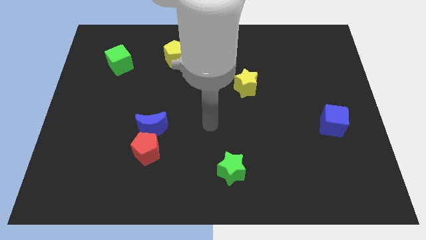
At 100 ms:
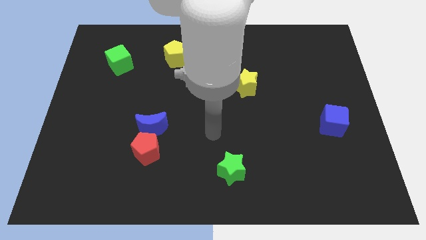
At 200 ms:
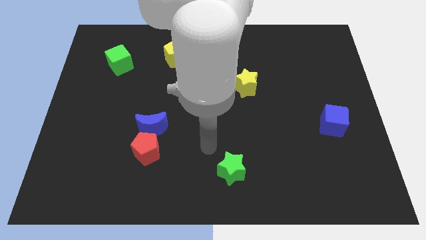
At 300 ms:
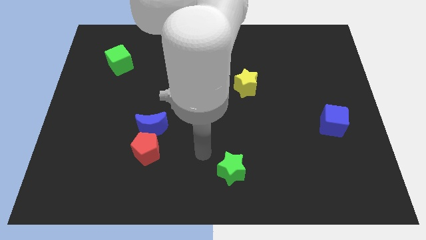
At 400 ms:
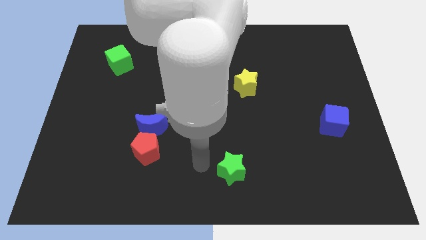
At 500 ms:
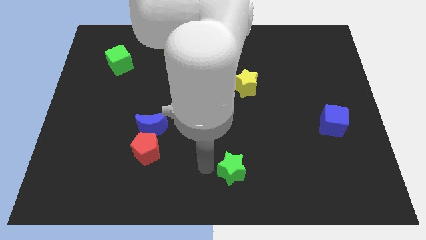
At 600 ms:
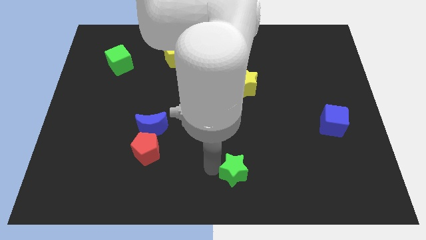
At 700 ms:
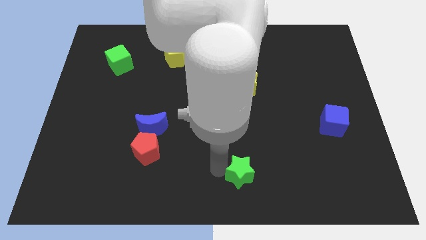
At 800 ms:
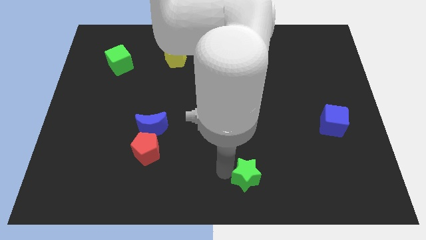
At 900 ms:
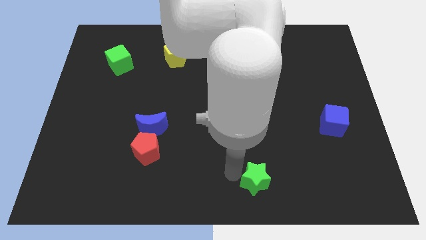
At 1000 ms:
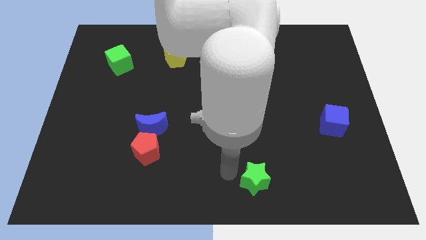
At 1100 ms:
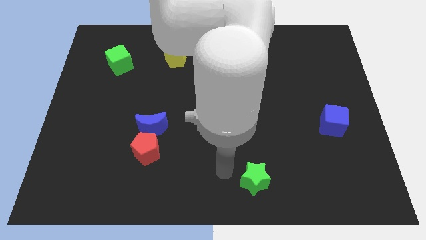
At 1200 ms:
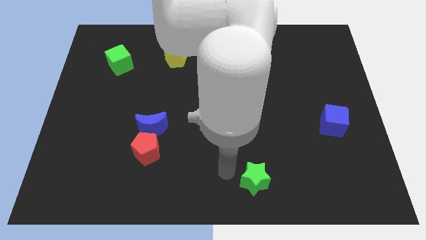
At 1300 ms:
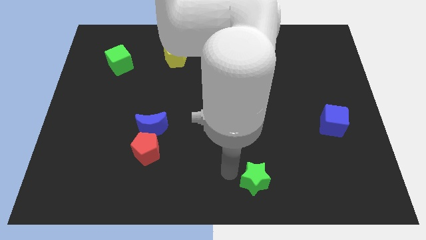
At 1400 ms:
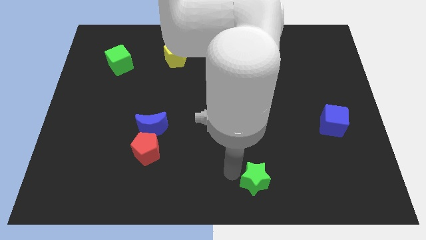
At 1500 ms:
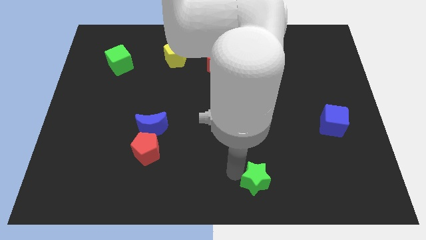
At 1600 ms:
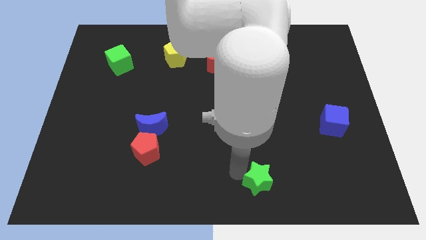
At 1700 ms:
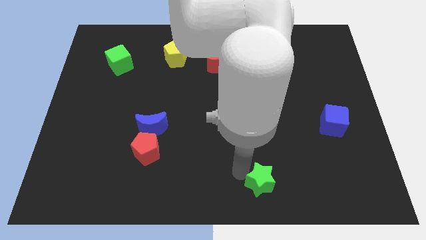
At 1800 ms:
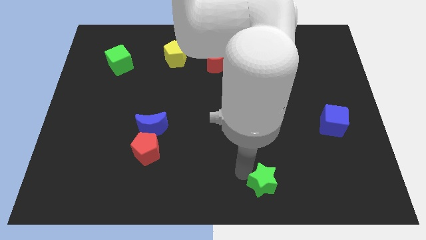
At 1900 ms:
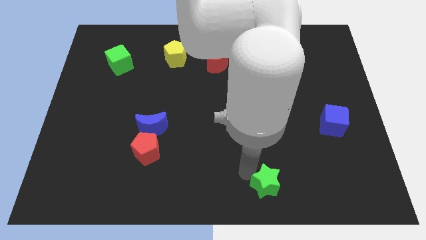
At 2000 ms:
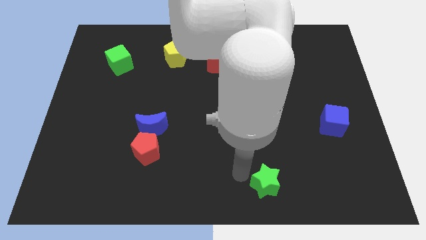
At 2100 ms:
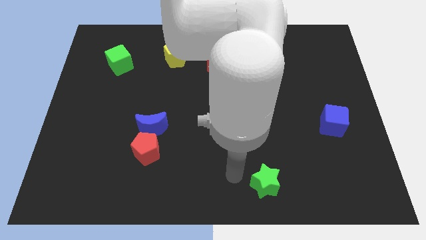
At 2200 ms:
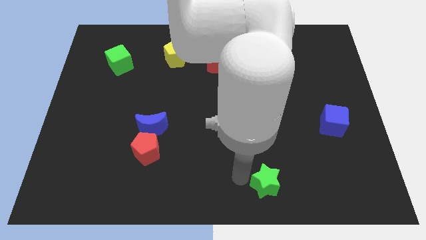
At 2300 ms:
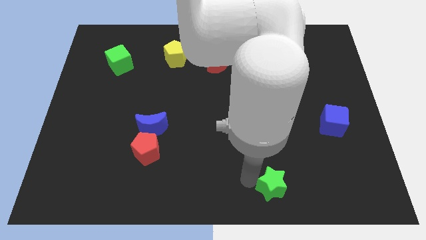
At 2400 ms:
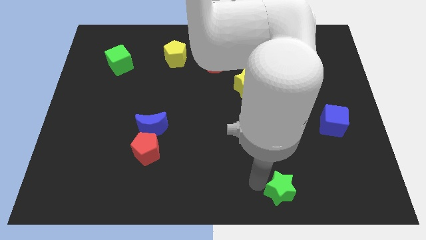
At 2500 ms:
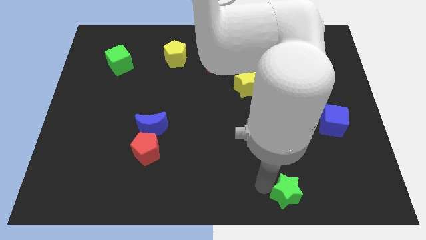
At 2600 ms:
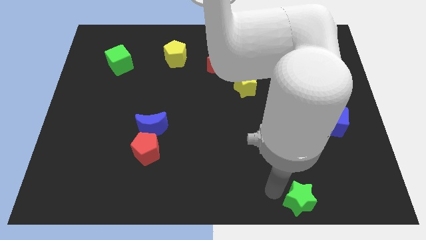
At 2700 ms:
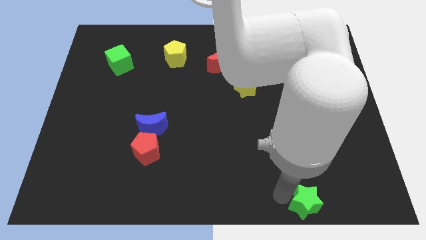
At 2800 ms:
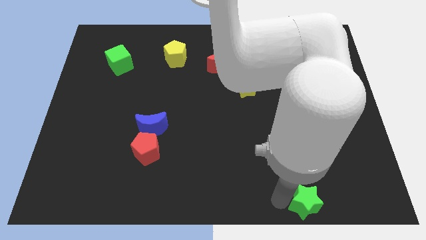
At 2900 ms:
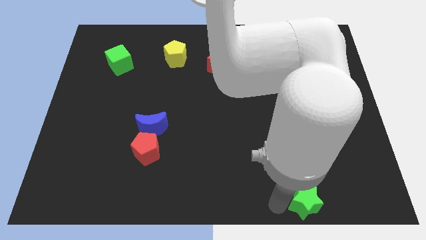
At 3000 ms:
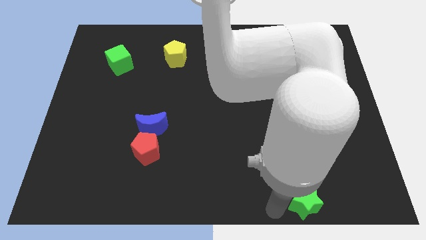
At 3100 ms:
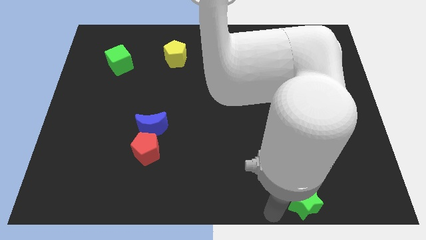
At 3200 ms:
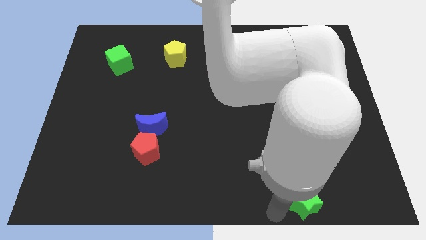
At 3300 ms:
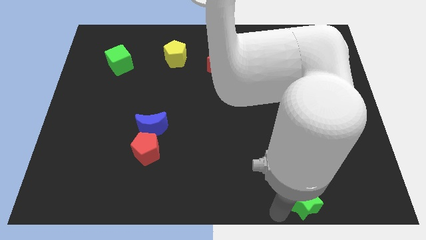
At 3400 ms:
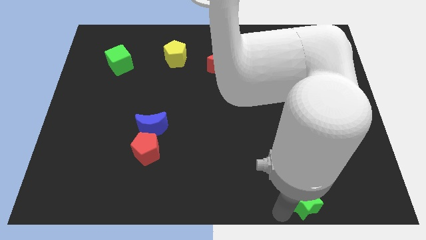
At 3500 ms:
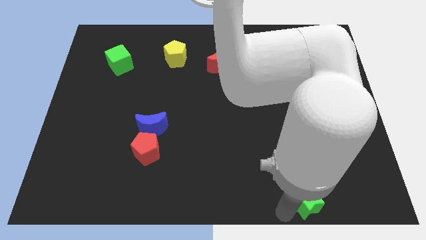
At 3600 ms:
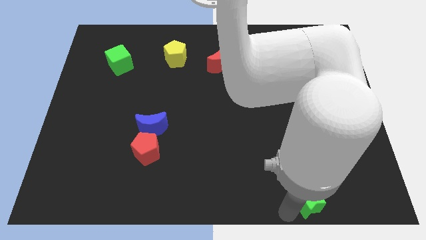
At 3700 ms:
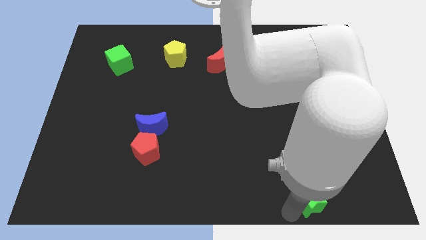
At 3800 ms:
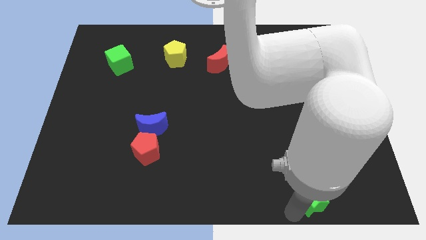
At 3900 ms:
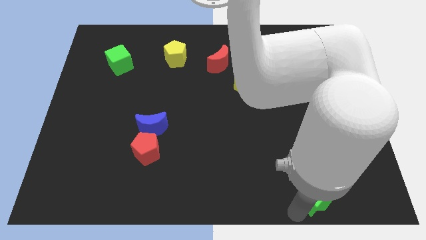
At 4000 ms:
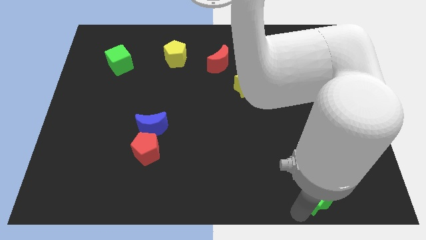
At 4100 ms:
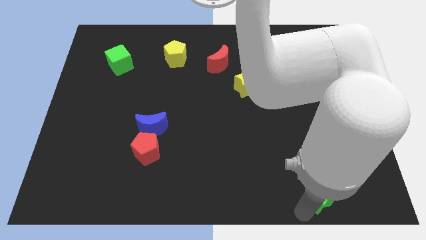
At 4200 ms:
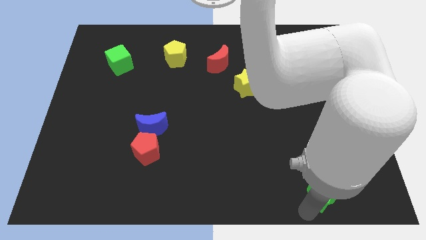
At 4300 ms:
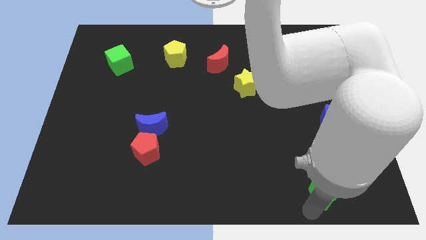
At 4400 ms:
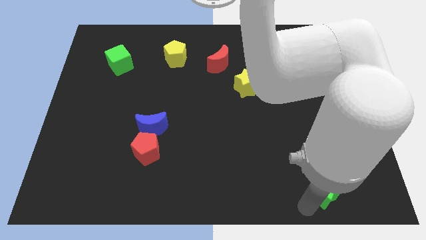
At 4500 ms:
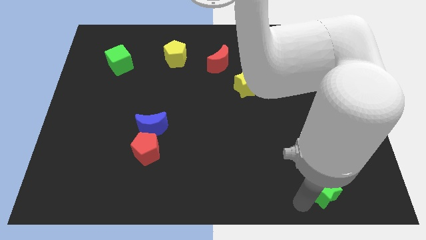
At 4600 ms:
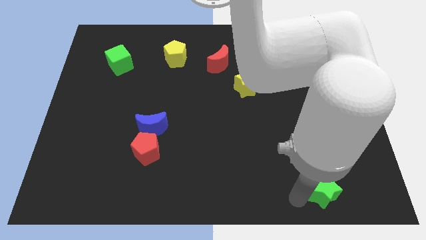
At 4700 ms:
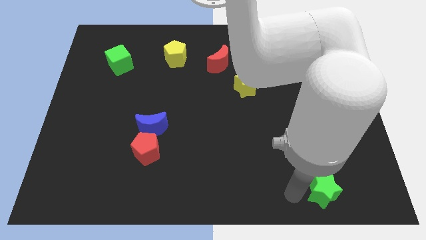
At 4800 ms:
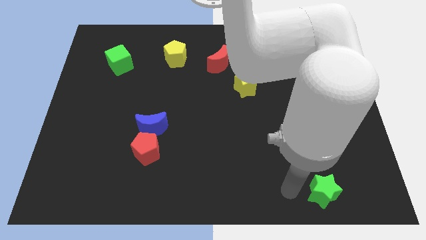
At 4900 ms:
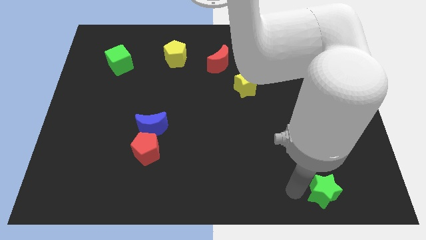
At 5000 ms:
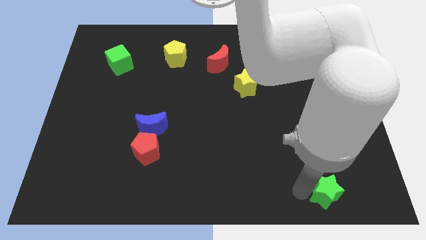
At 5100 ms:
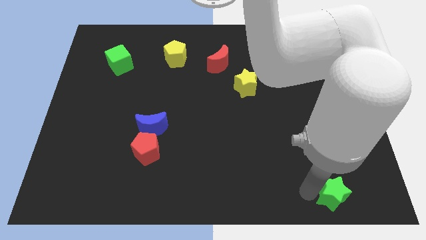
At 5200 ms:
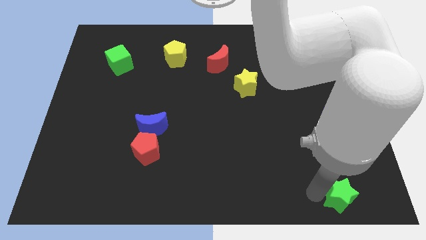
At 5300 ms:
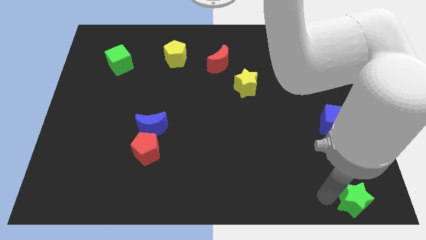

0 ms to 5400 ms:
put the green star to the bottom right corner

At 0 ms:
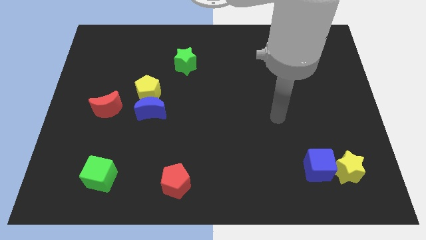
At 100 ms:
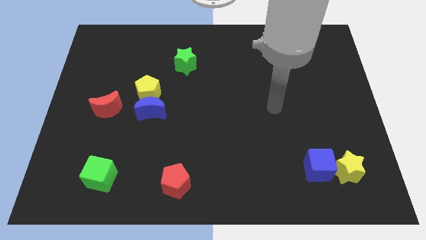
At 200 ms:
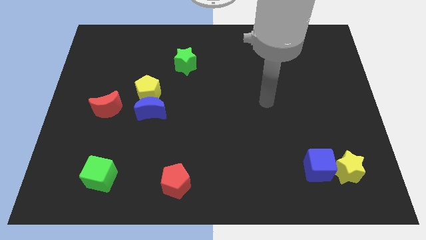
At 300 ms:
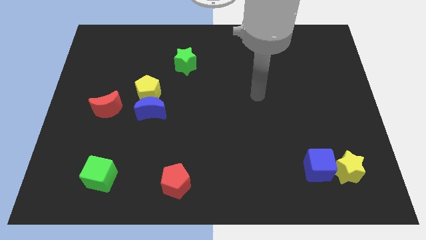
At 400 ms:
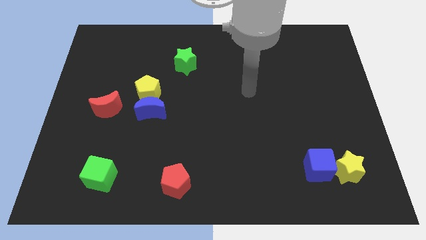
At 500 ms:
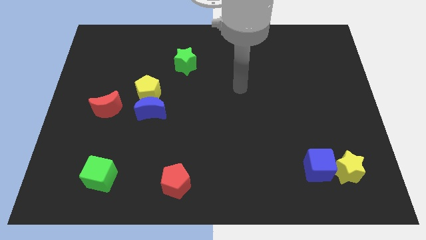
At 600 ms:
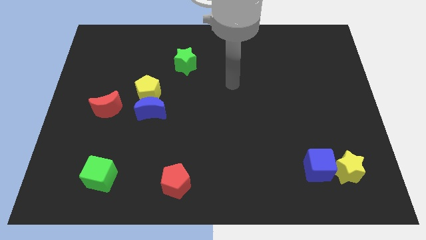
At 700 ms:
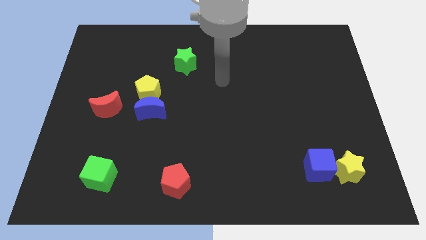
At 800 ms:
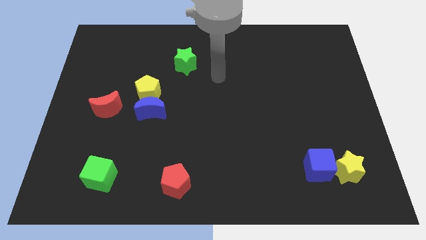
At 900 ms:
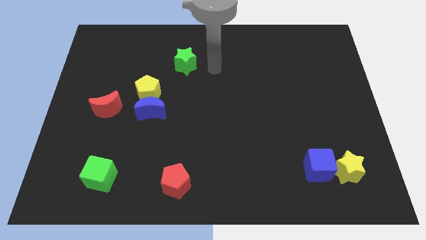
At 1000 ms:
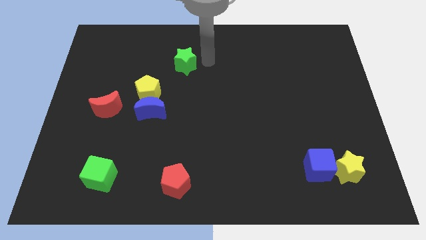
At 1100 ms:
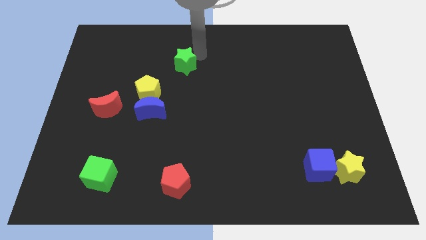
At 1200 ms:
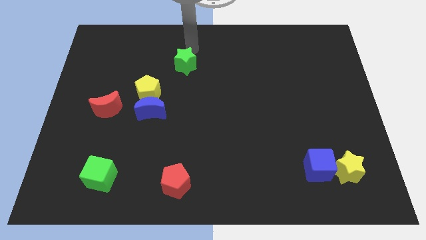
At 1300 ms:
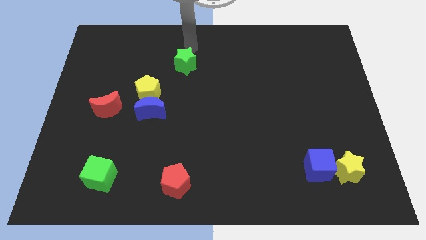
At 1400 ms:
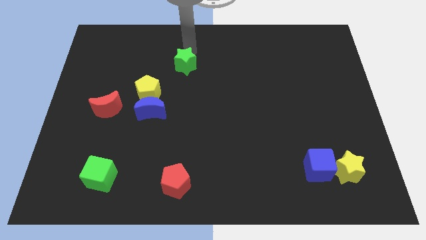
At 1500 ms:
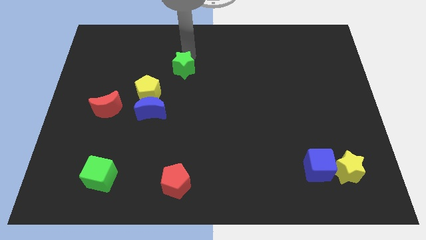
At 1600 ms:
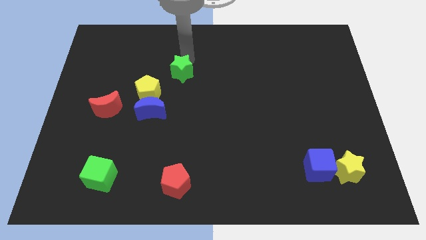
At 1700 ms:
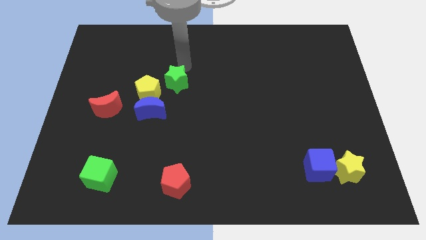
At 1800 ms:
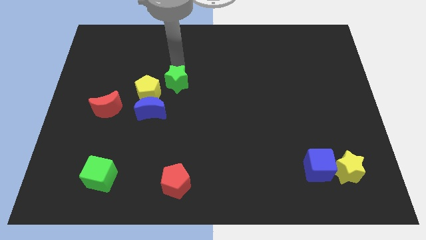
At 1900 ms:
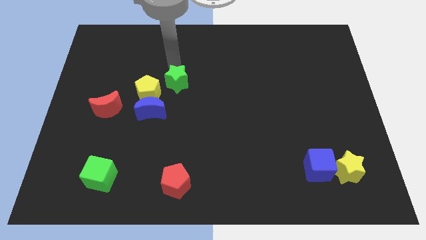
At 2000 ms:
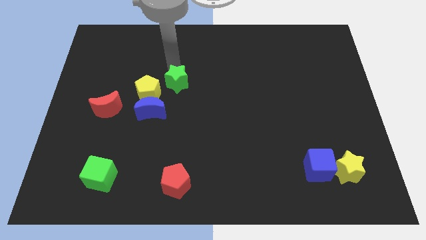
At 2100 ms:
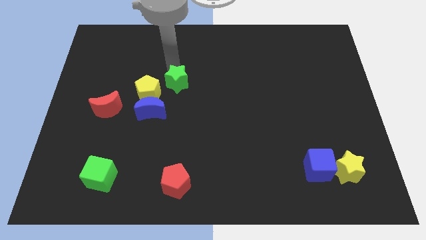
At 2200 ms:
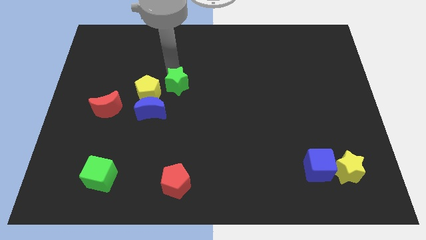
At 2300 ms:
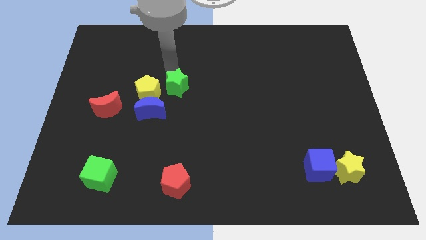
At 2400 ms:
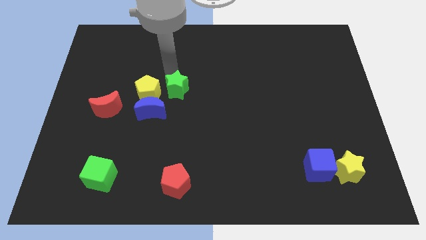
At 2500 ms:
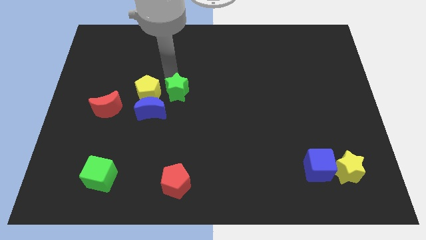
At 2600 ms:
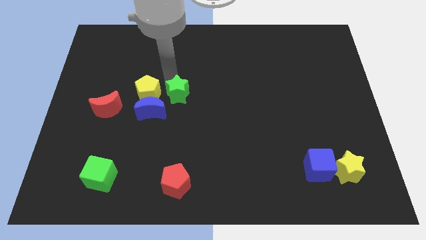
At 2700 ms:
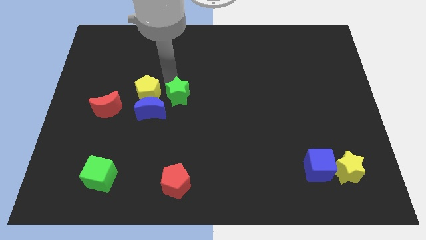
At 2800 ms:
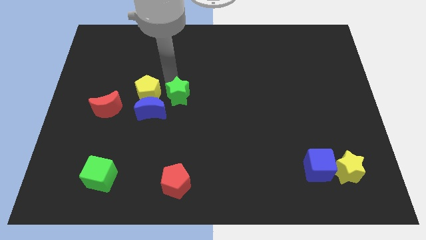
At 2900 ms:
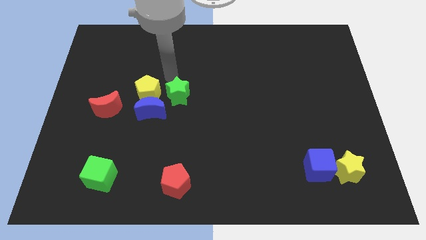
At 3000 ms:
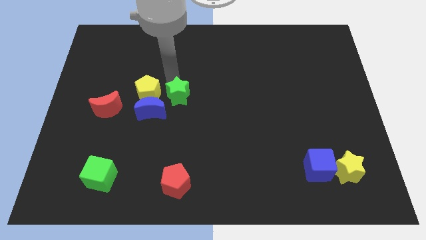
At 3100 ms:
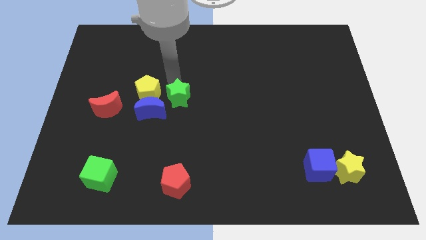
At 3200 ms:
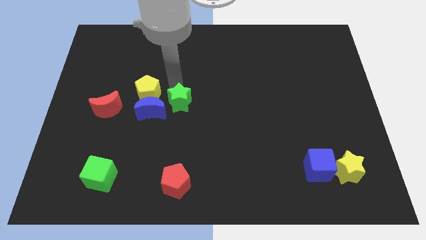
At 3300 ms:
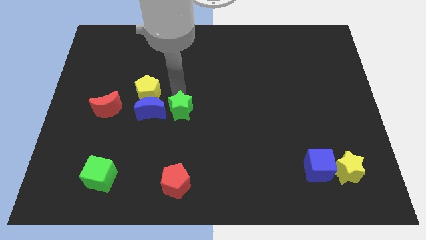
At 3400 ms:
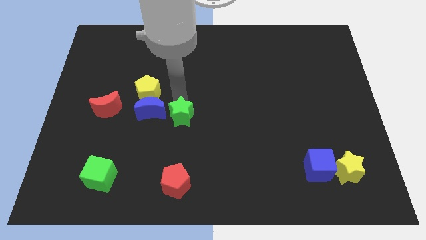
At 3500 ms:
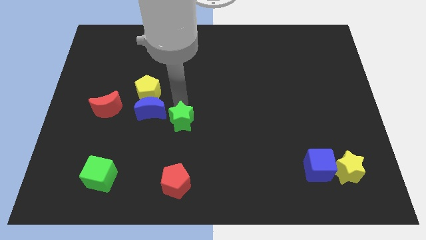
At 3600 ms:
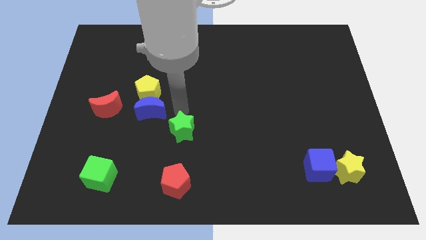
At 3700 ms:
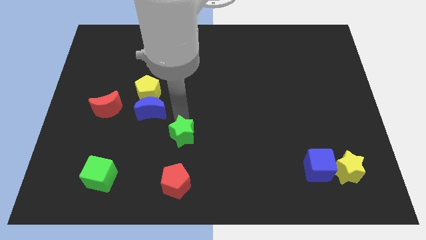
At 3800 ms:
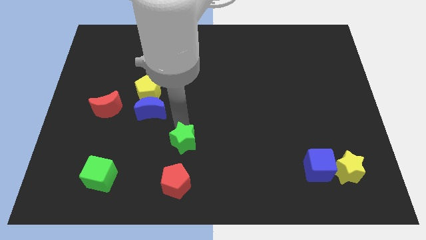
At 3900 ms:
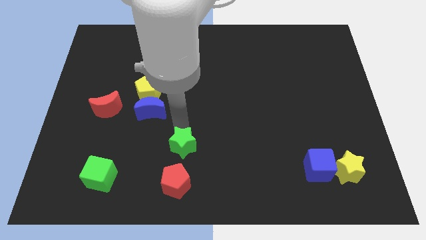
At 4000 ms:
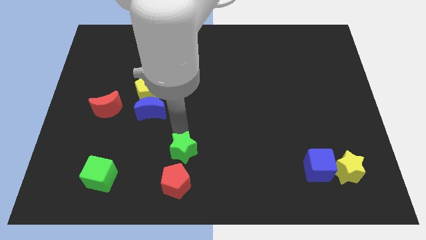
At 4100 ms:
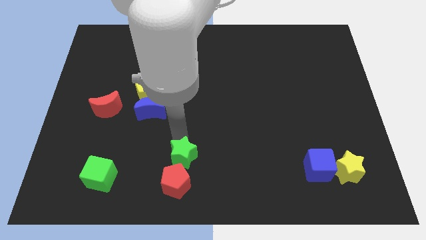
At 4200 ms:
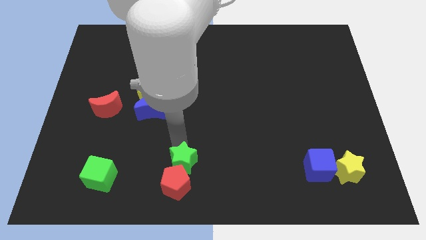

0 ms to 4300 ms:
push the green star to the bottom side
